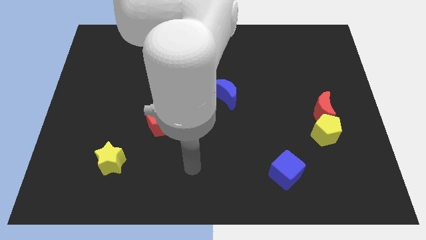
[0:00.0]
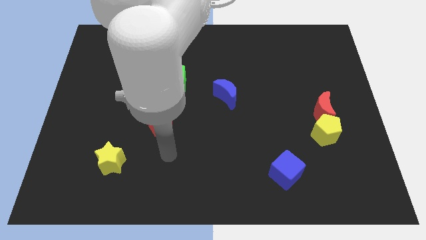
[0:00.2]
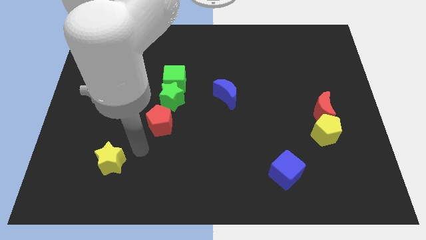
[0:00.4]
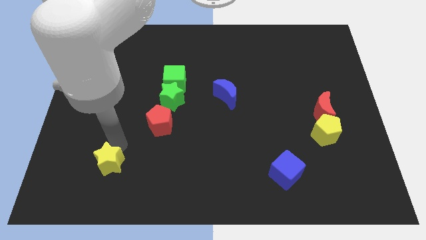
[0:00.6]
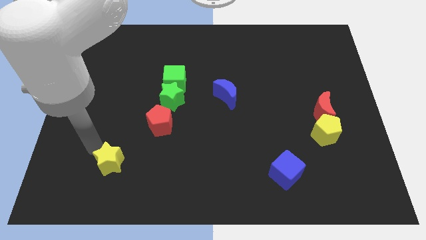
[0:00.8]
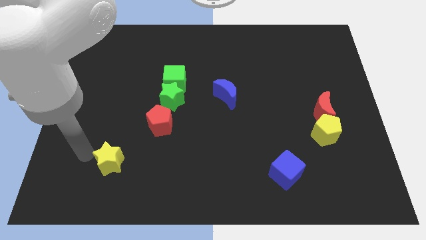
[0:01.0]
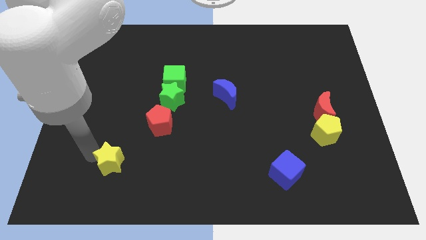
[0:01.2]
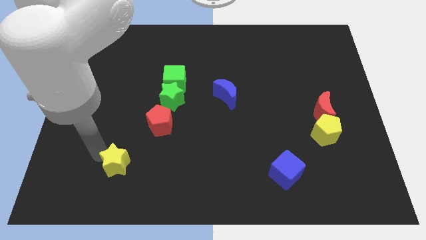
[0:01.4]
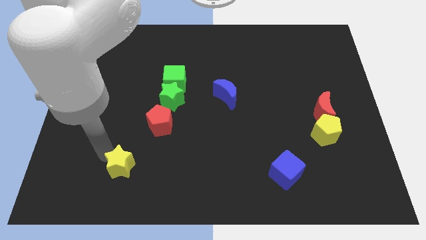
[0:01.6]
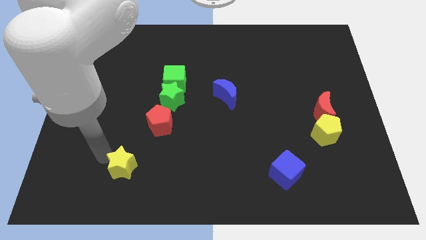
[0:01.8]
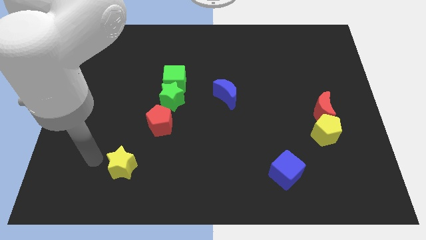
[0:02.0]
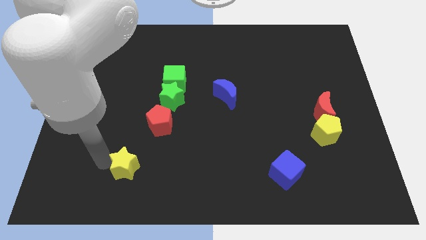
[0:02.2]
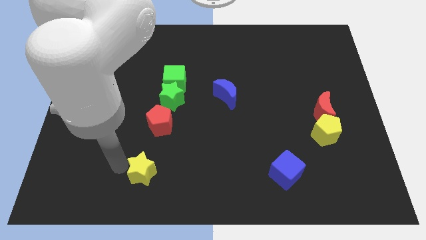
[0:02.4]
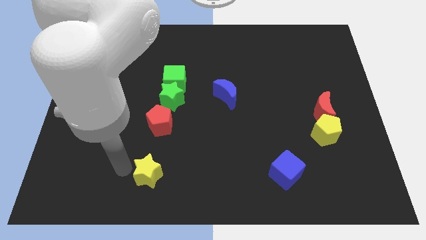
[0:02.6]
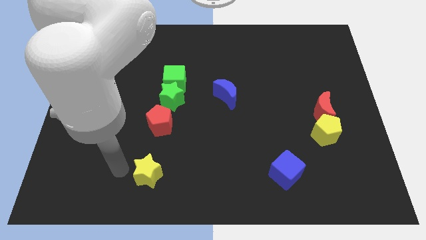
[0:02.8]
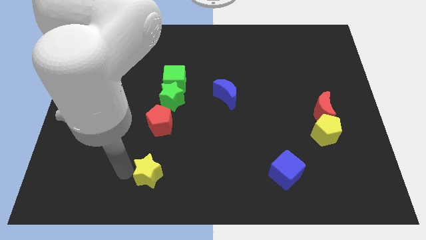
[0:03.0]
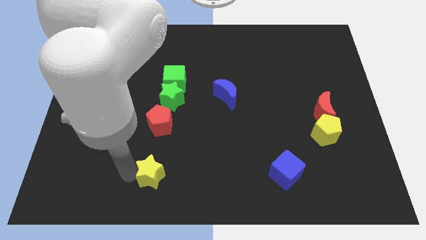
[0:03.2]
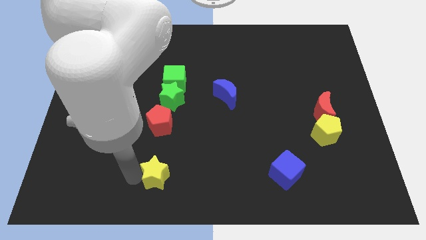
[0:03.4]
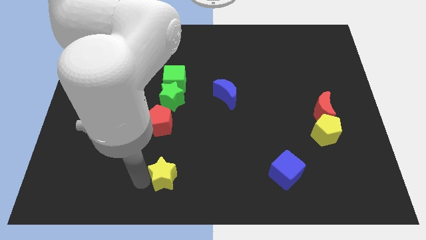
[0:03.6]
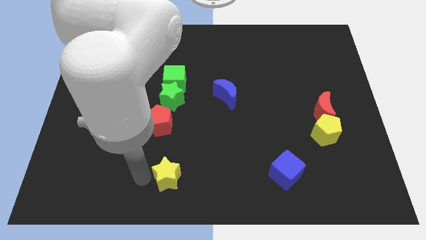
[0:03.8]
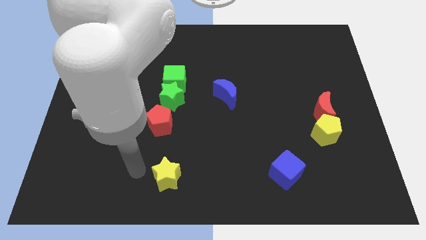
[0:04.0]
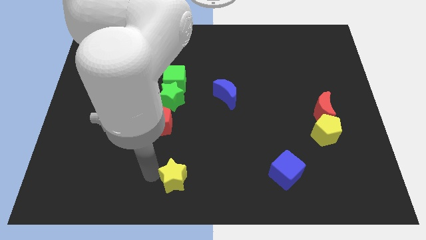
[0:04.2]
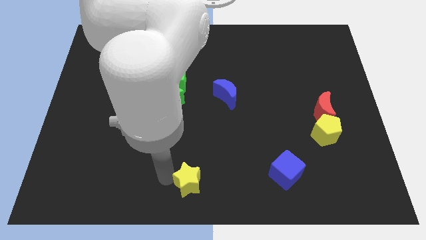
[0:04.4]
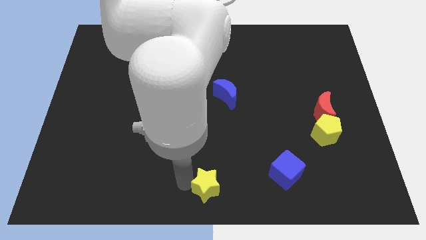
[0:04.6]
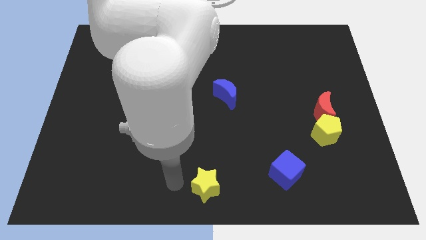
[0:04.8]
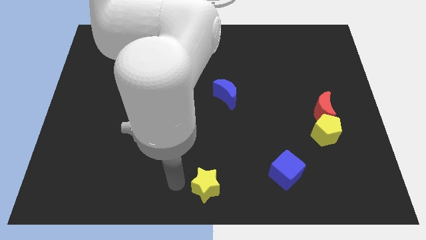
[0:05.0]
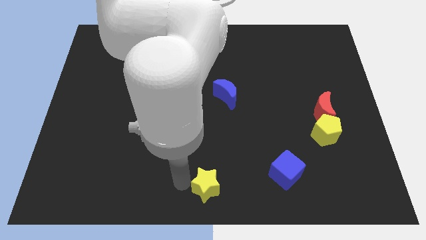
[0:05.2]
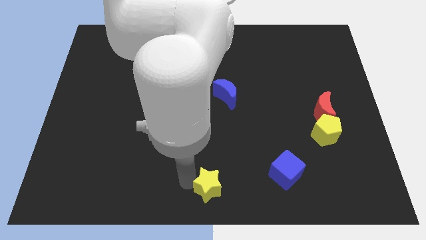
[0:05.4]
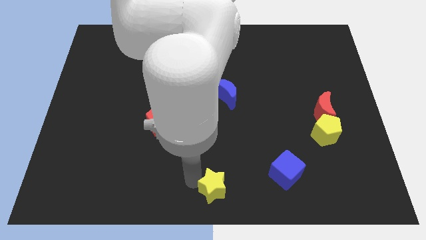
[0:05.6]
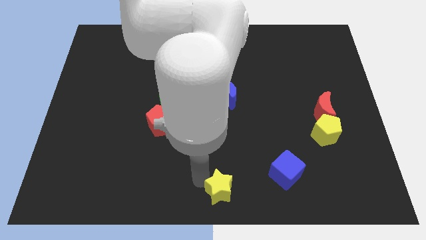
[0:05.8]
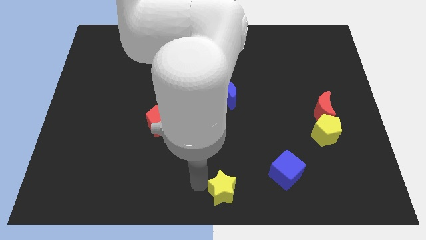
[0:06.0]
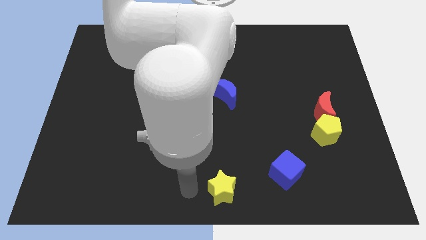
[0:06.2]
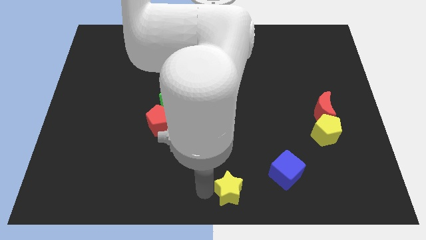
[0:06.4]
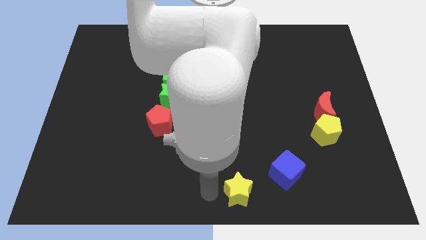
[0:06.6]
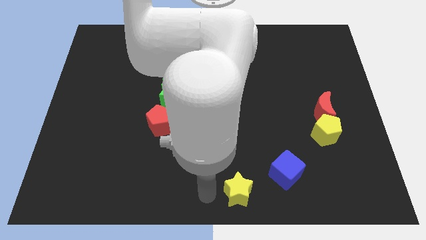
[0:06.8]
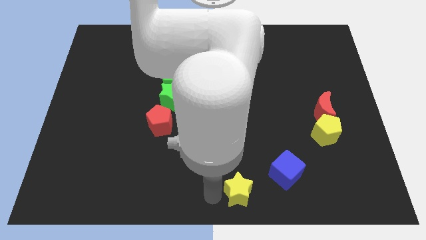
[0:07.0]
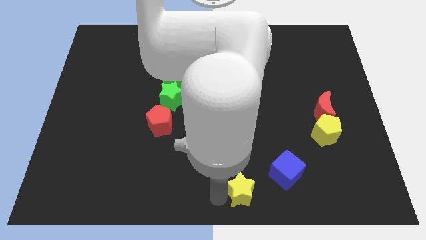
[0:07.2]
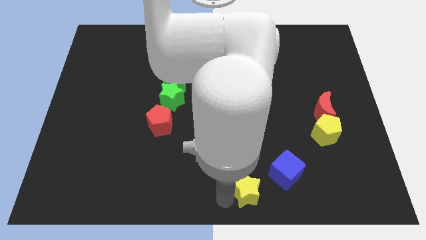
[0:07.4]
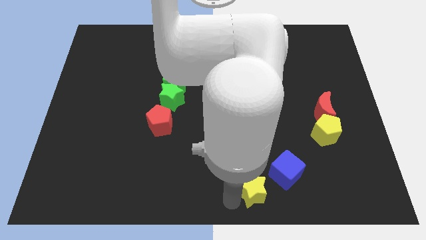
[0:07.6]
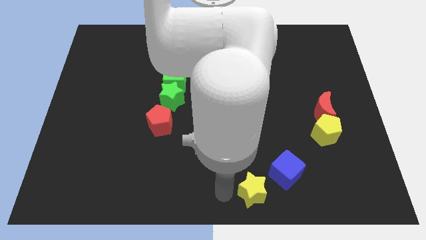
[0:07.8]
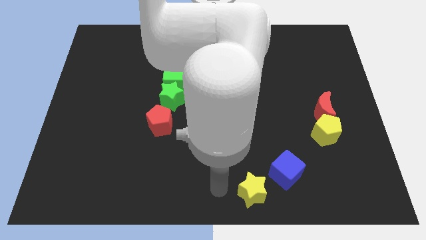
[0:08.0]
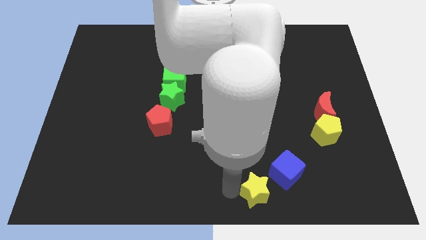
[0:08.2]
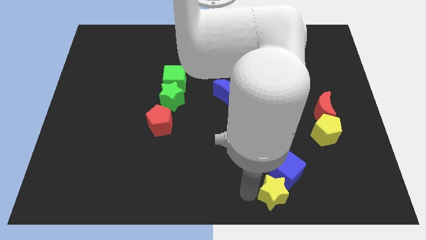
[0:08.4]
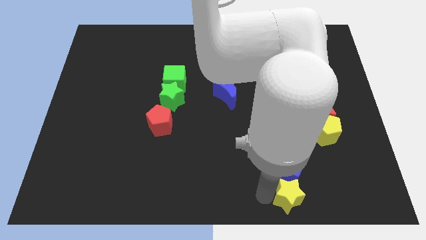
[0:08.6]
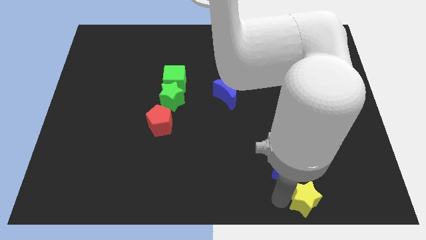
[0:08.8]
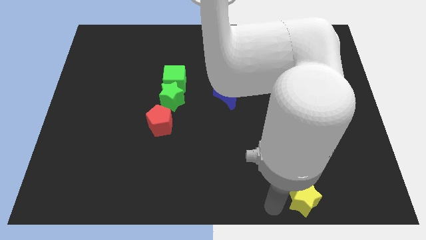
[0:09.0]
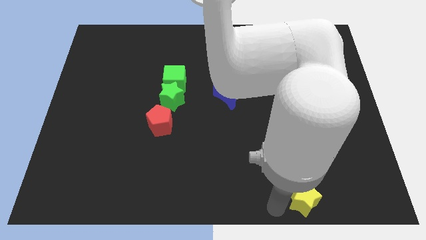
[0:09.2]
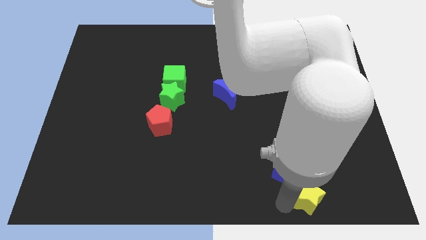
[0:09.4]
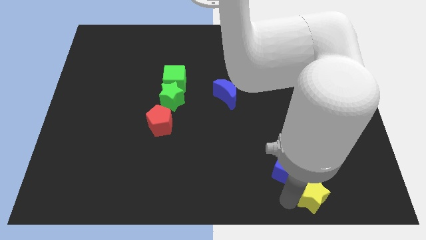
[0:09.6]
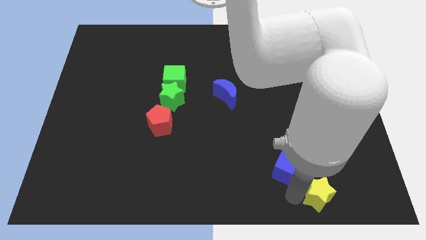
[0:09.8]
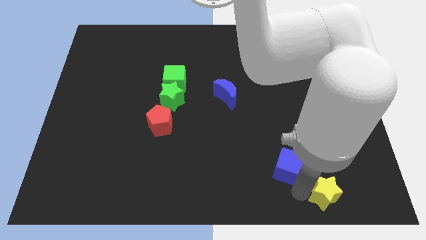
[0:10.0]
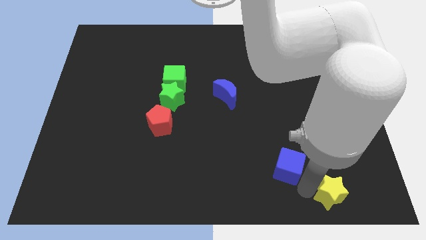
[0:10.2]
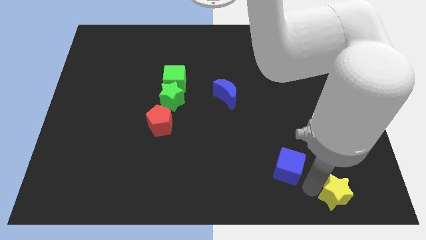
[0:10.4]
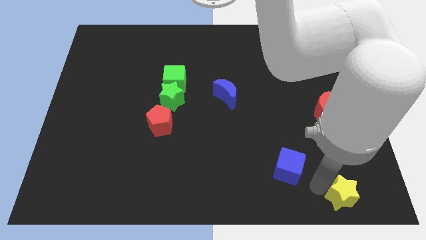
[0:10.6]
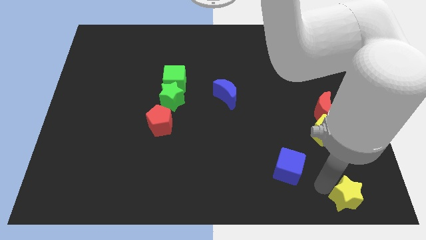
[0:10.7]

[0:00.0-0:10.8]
push the yellow star to the lower right corner

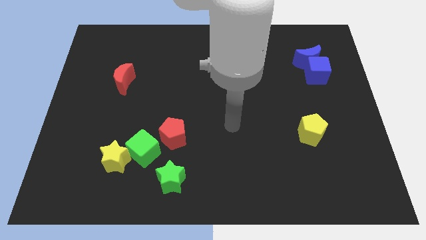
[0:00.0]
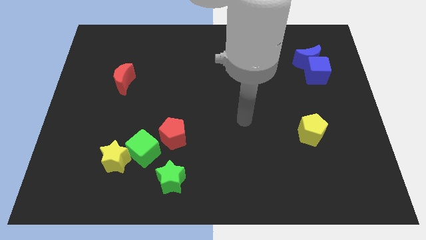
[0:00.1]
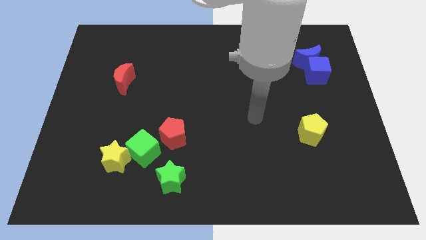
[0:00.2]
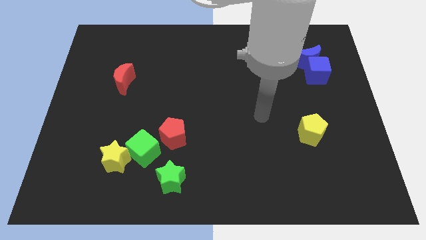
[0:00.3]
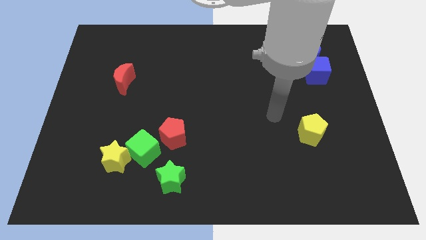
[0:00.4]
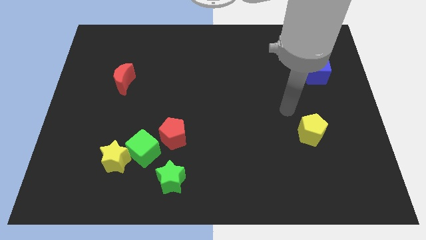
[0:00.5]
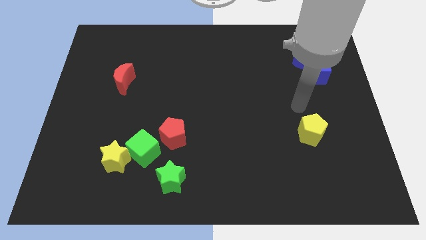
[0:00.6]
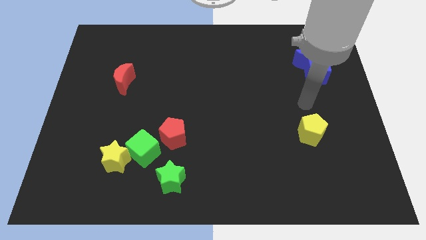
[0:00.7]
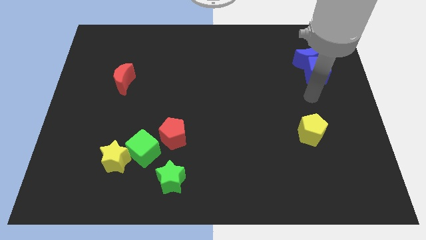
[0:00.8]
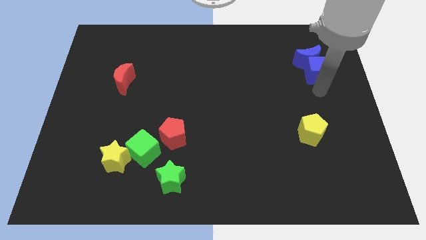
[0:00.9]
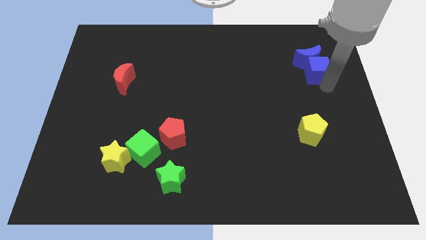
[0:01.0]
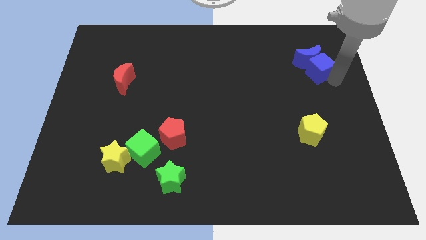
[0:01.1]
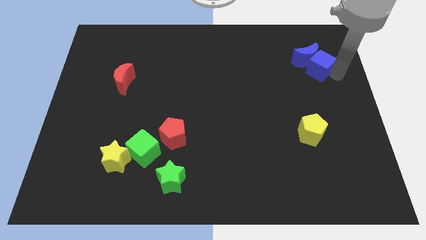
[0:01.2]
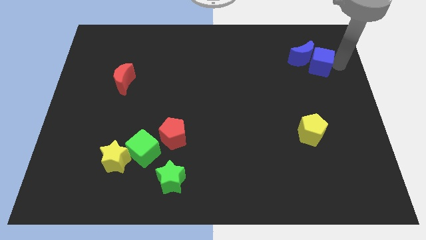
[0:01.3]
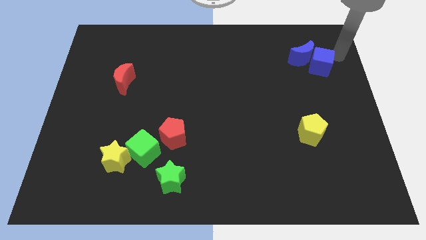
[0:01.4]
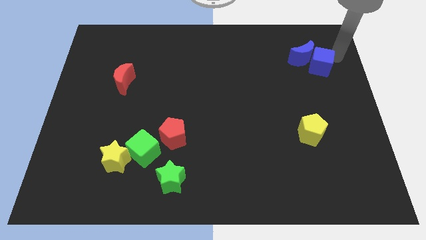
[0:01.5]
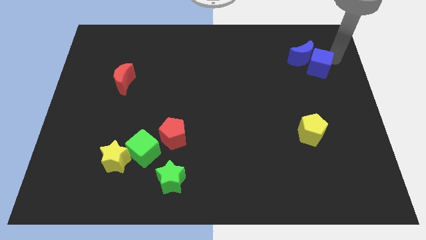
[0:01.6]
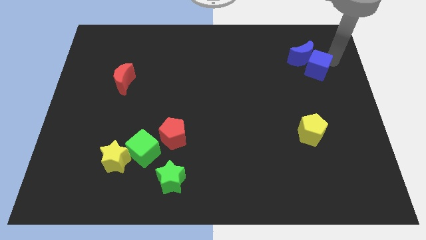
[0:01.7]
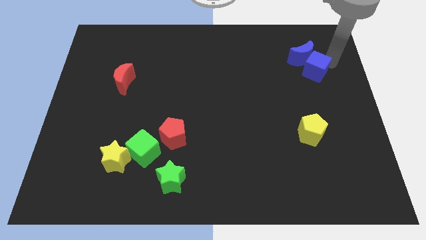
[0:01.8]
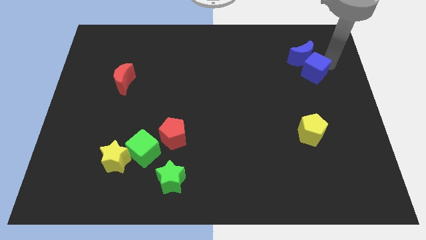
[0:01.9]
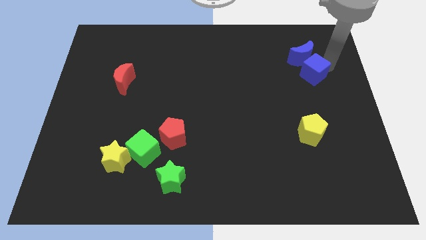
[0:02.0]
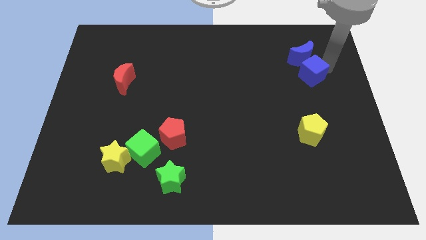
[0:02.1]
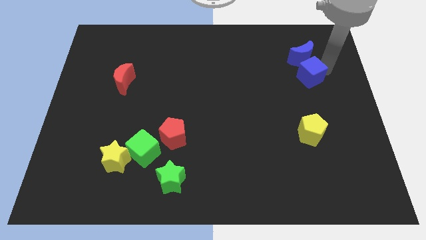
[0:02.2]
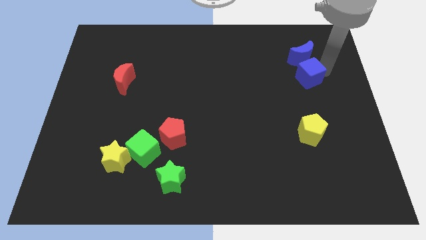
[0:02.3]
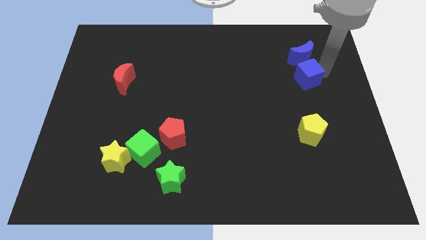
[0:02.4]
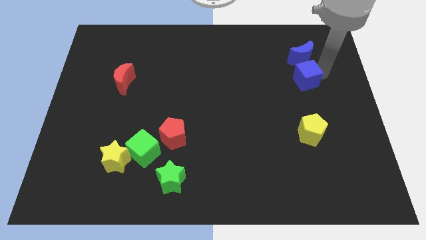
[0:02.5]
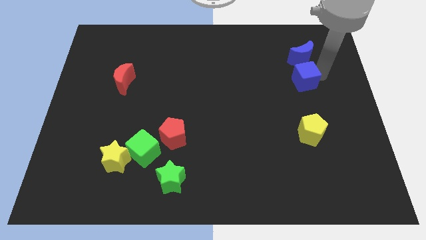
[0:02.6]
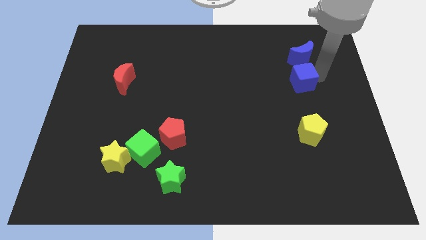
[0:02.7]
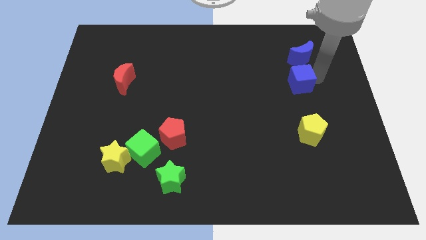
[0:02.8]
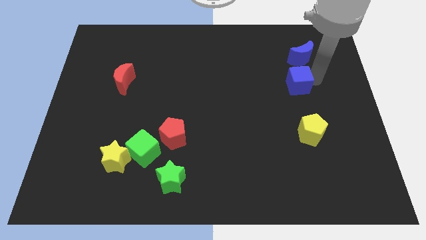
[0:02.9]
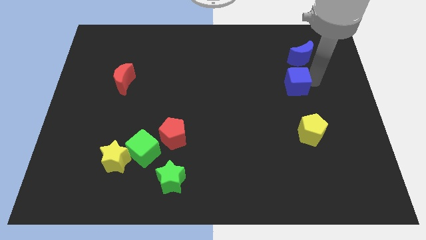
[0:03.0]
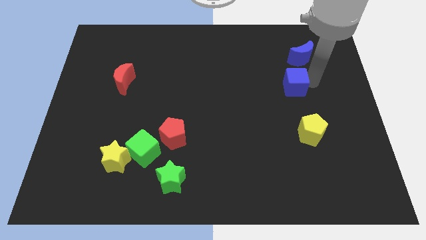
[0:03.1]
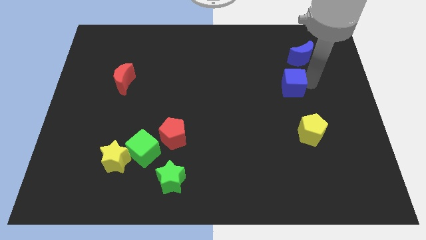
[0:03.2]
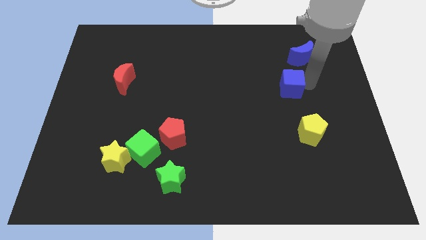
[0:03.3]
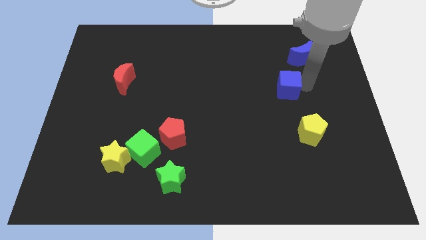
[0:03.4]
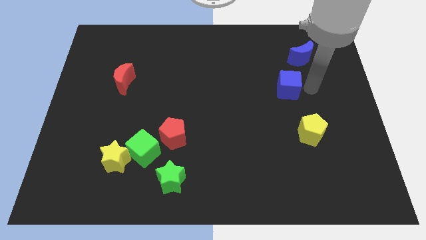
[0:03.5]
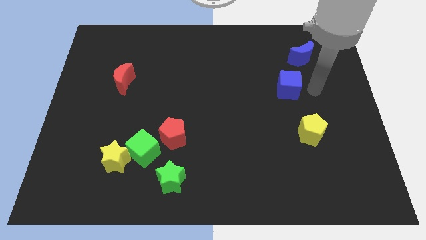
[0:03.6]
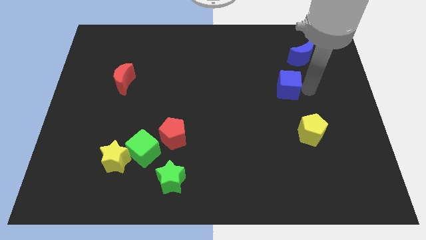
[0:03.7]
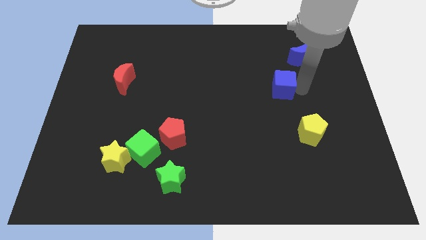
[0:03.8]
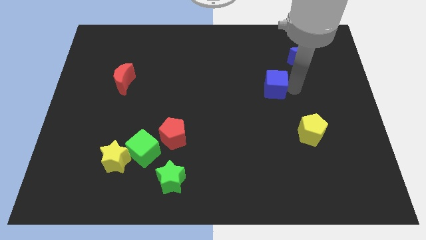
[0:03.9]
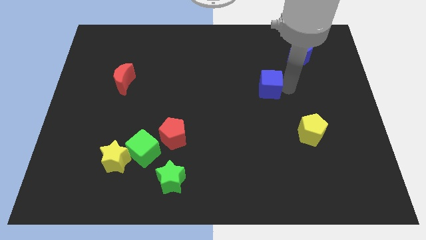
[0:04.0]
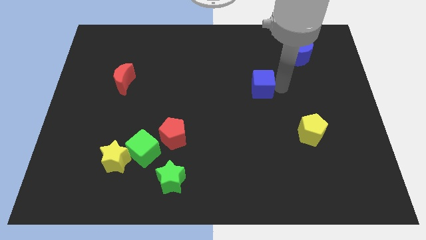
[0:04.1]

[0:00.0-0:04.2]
push the blue cube to the center
